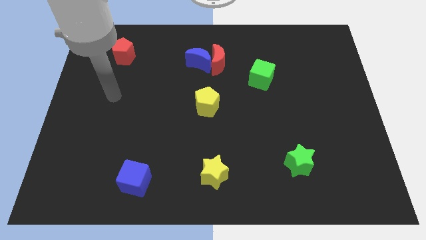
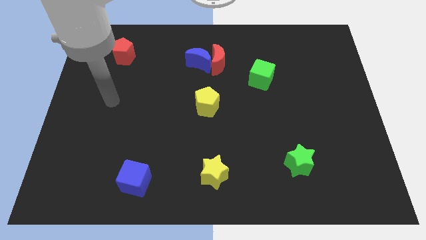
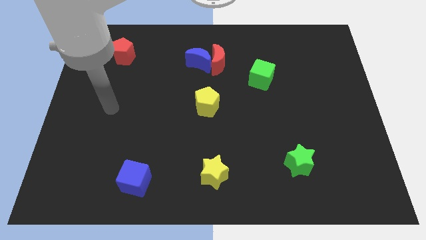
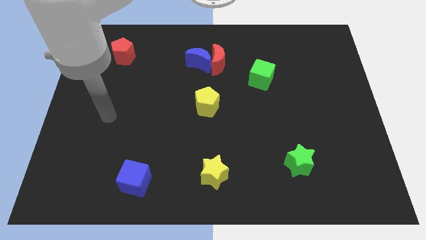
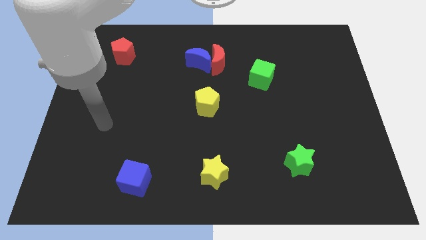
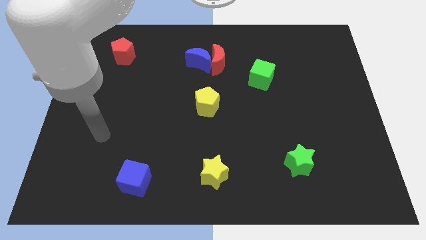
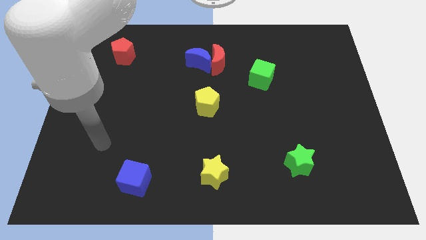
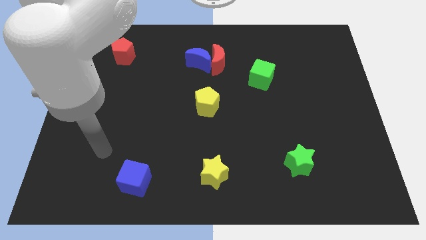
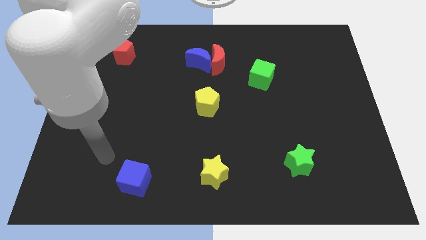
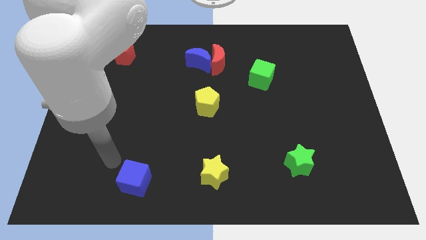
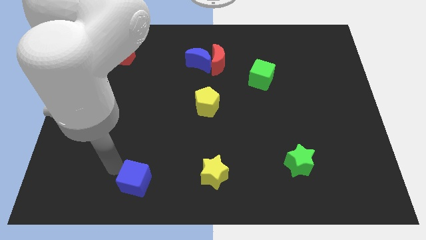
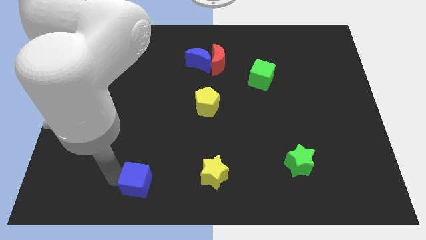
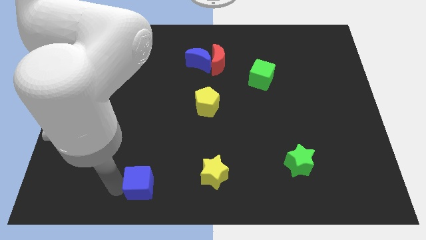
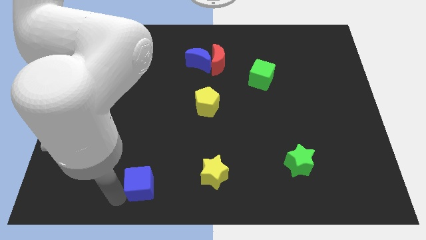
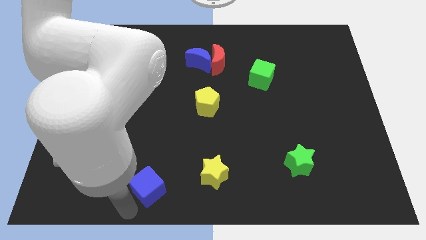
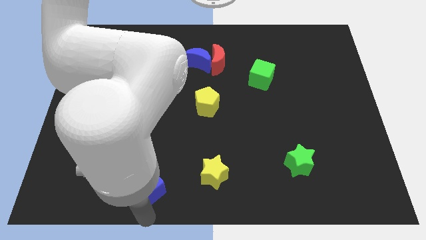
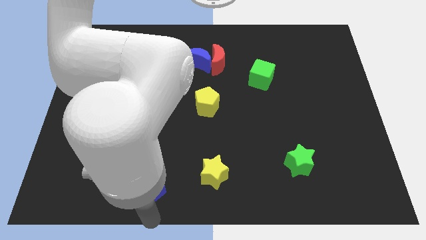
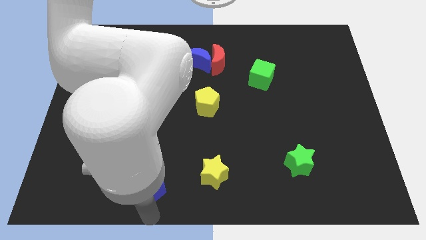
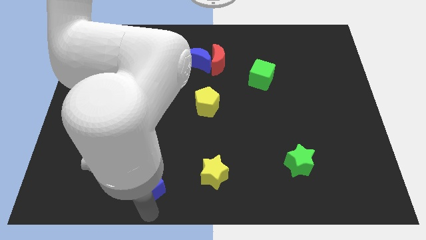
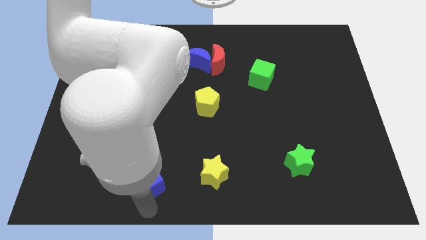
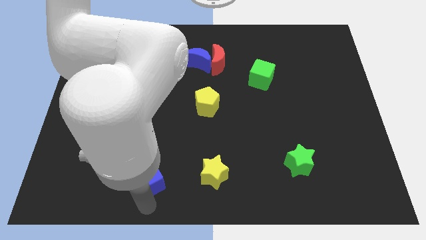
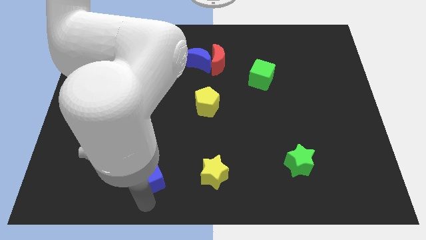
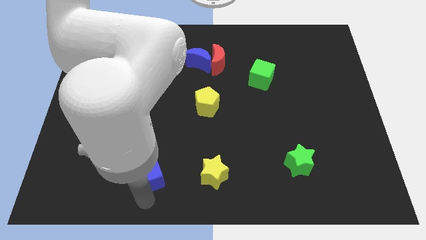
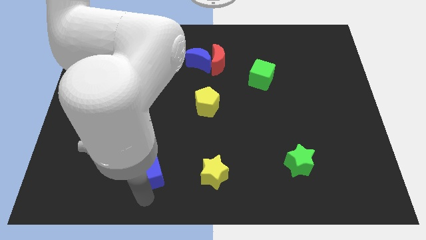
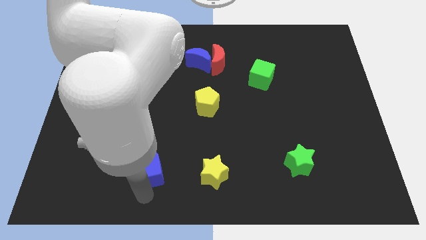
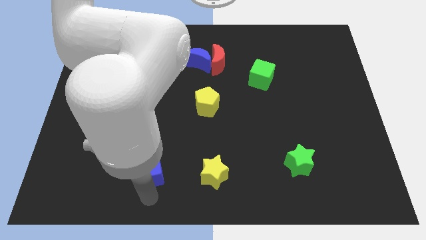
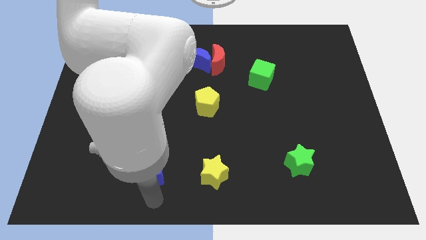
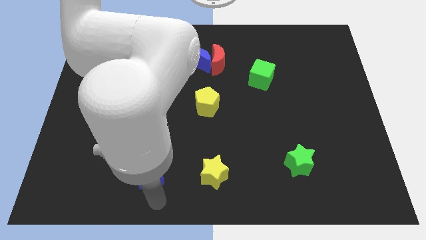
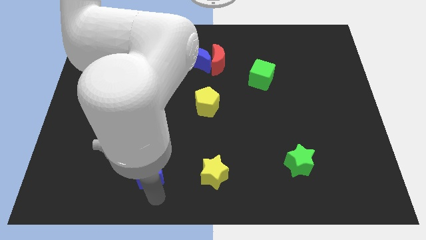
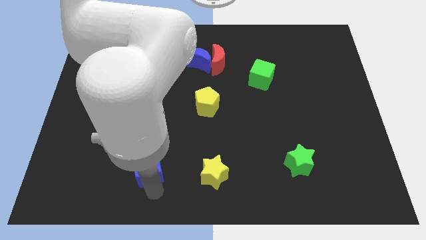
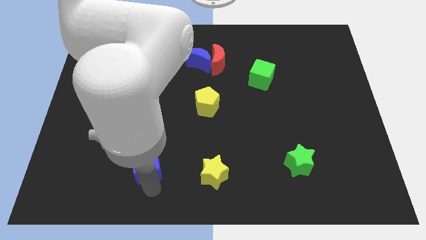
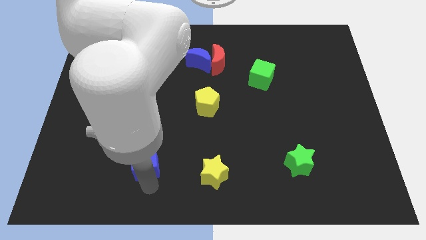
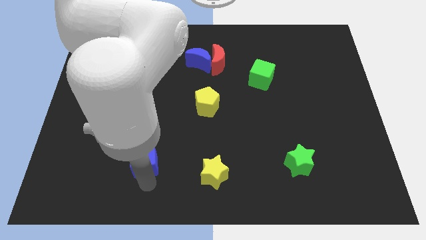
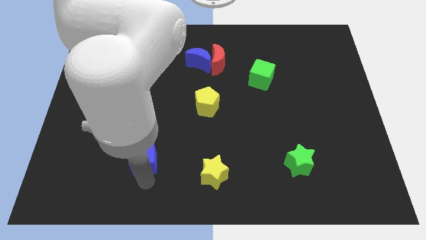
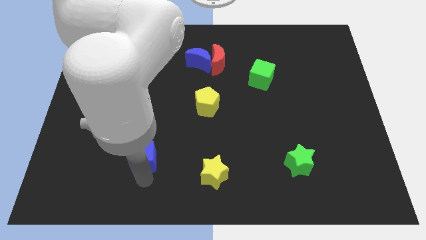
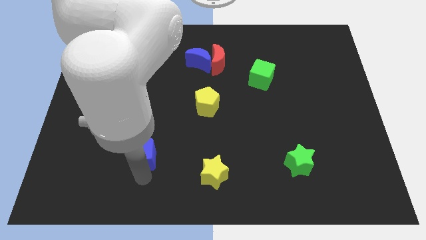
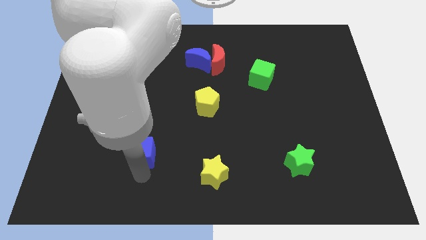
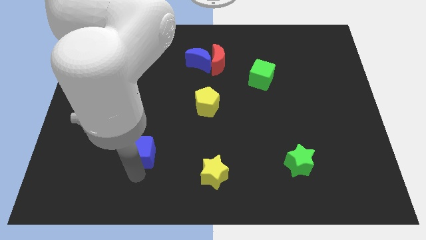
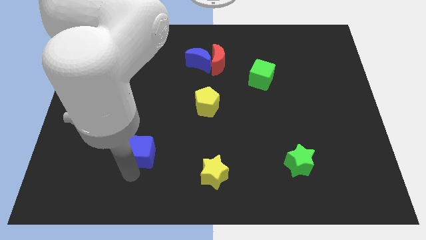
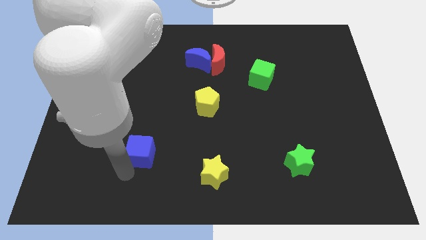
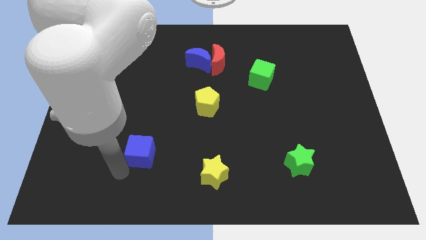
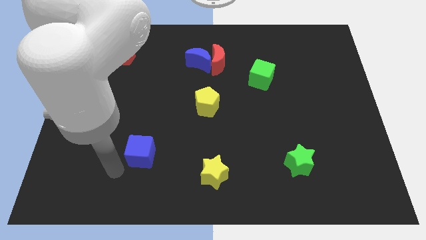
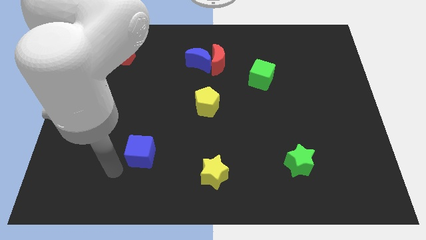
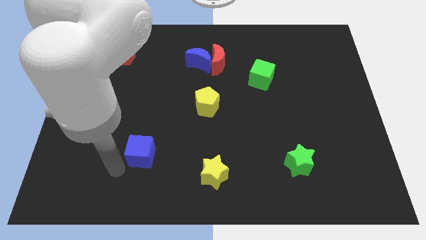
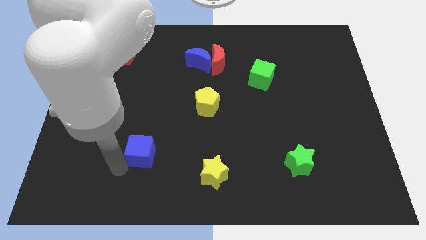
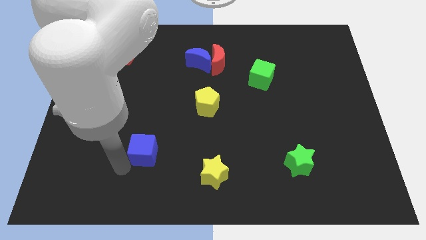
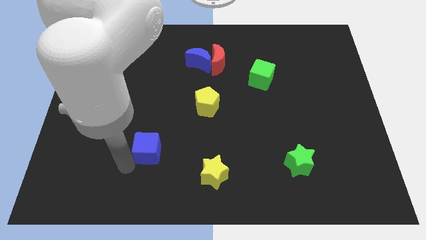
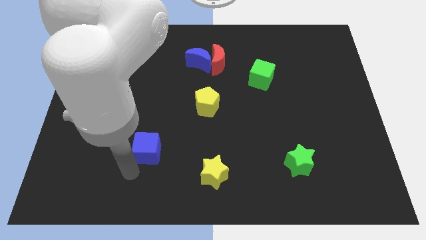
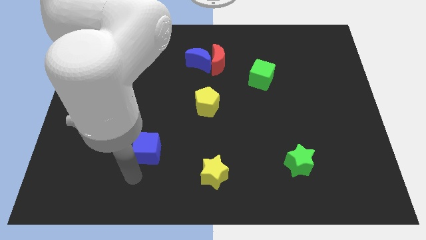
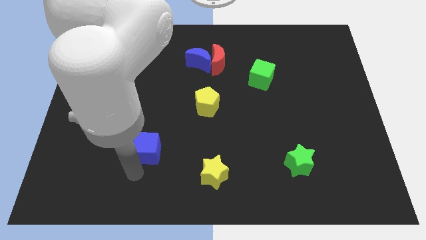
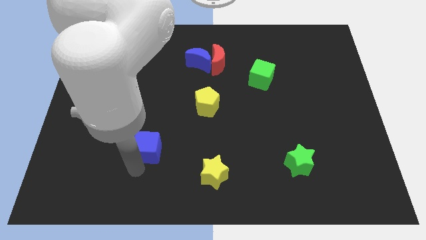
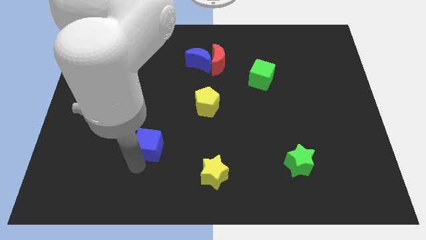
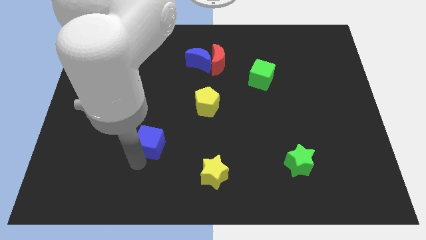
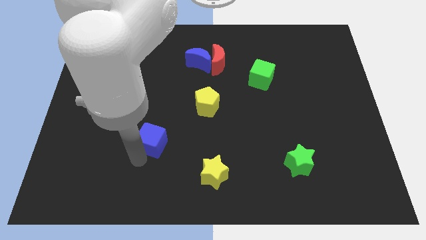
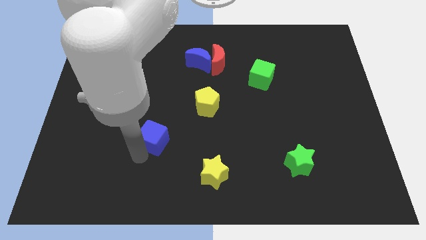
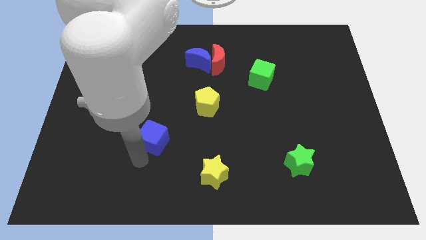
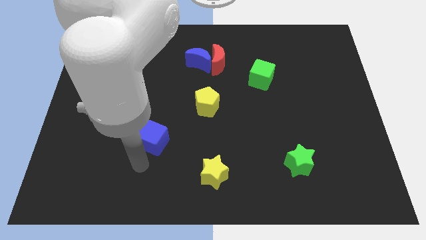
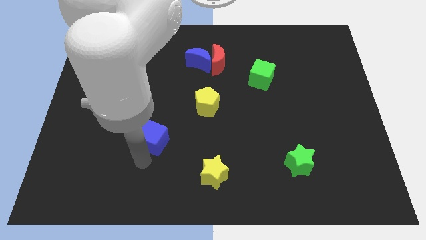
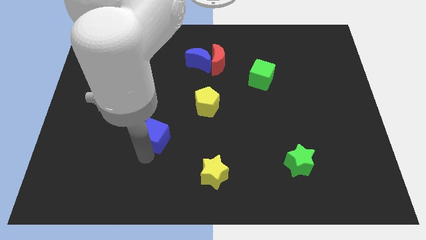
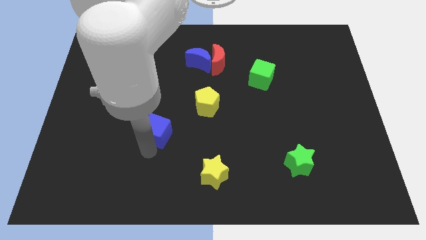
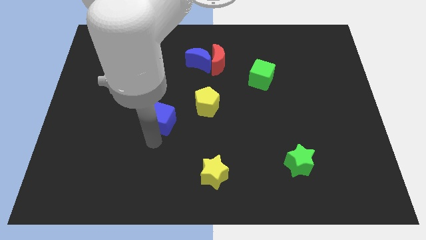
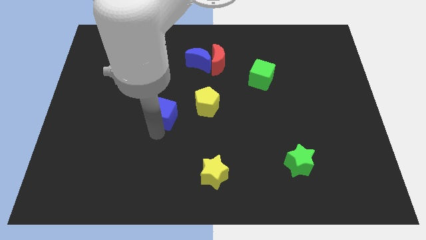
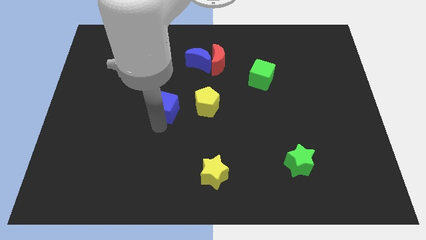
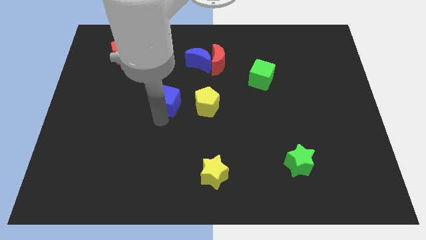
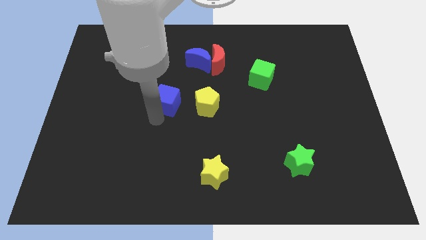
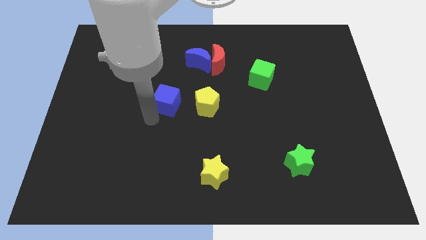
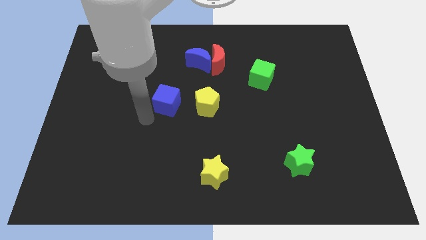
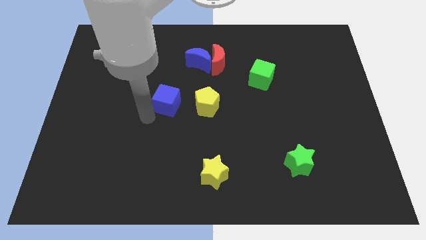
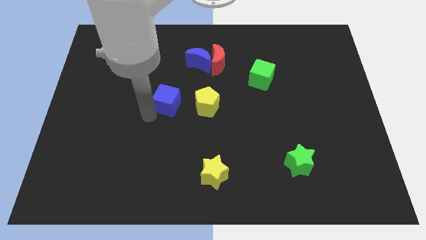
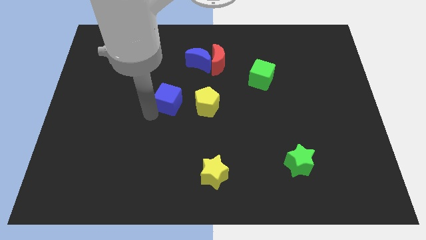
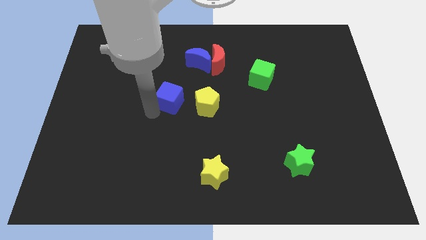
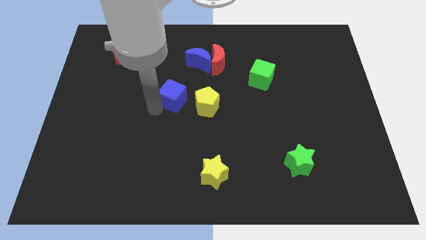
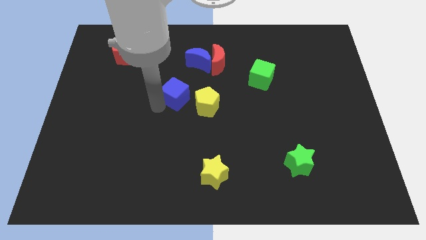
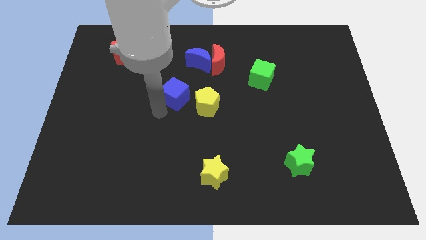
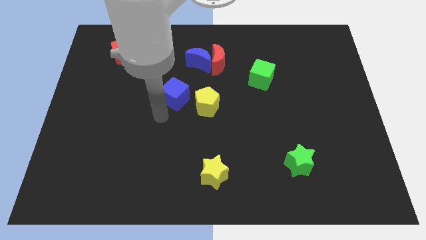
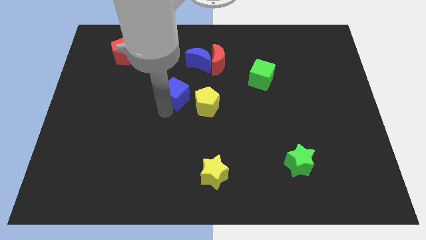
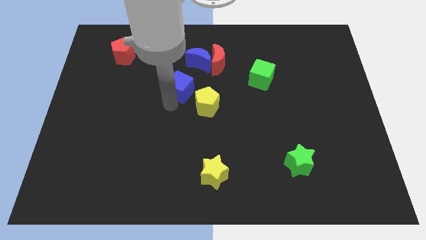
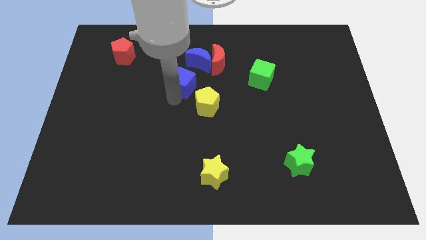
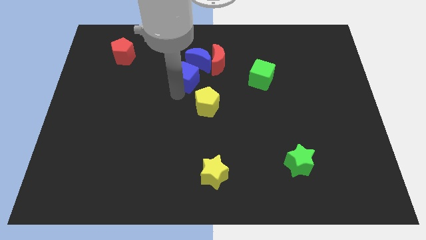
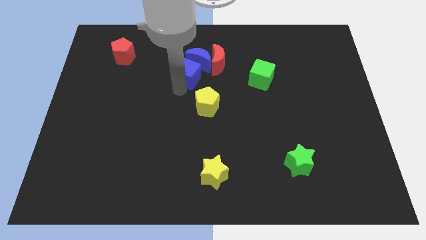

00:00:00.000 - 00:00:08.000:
push the blue cube to the blue moon

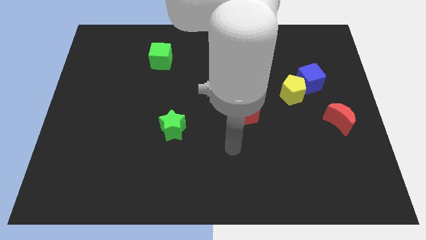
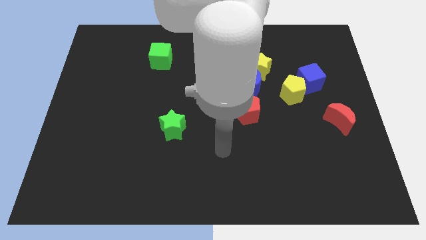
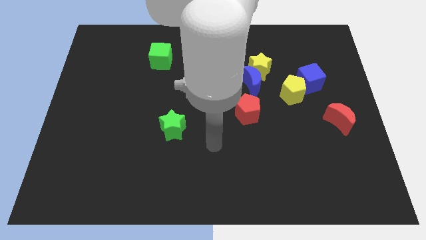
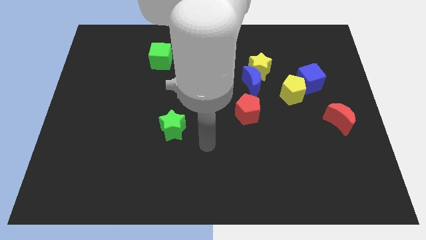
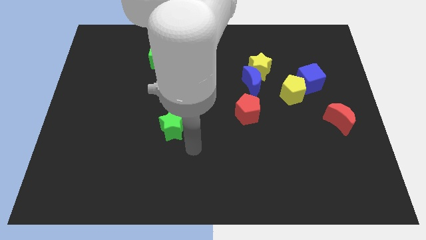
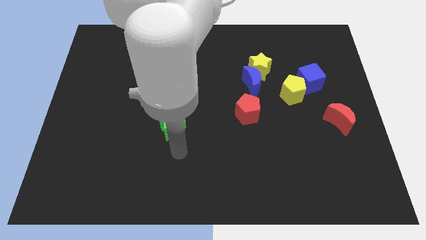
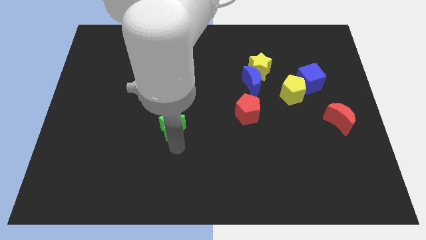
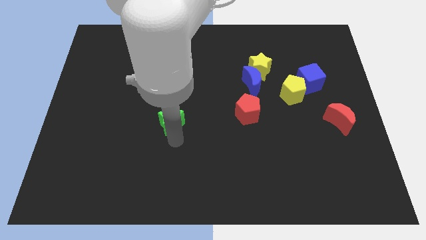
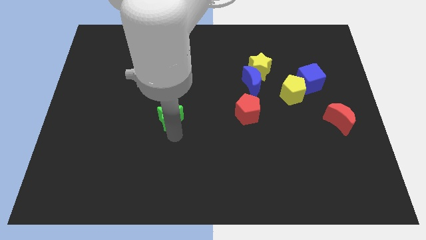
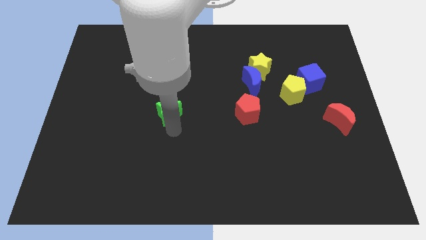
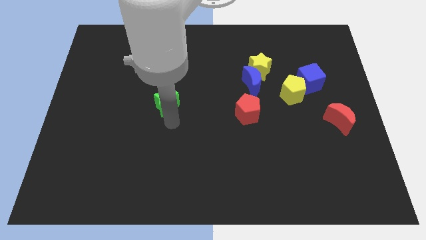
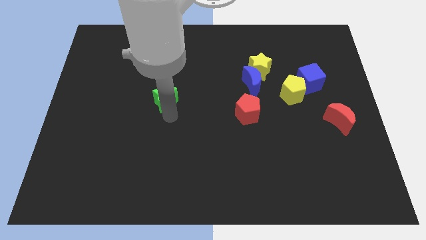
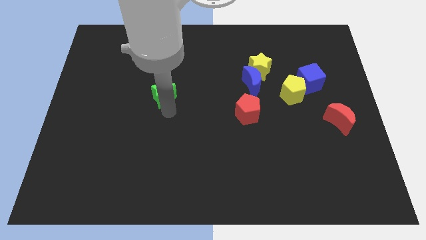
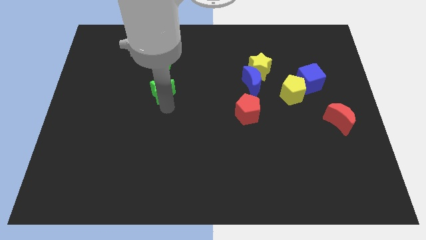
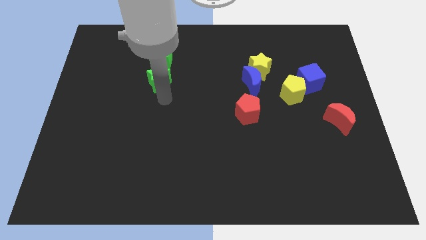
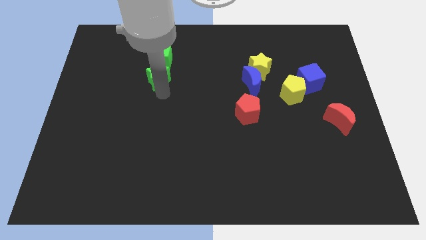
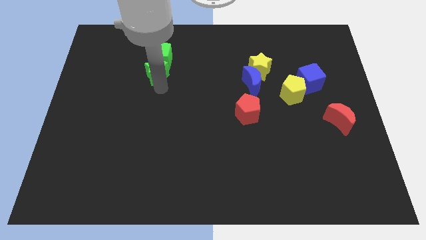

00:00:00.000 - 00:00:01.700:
push the green star towards the green cube
